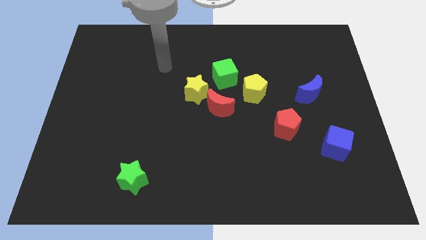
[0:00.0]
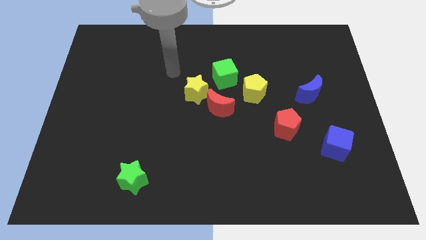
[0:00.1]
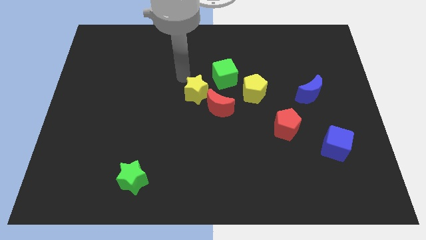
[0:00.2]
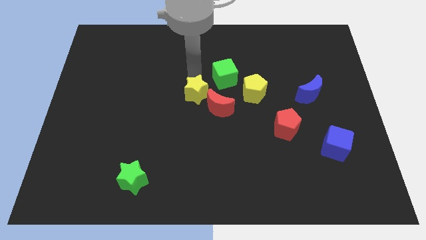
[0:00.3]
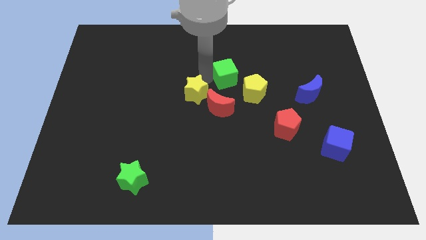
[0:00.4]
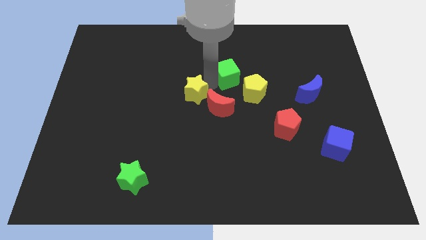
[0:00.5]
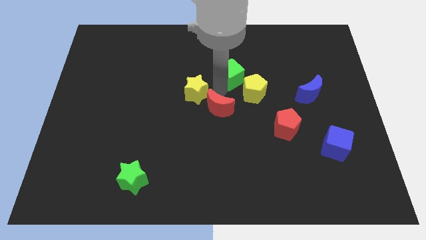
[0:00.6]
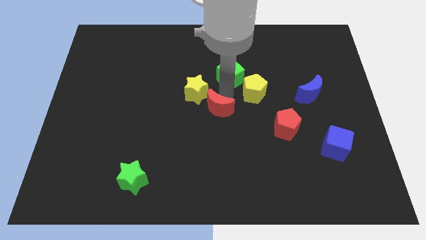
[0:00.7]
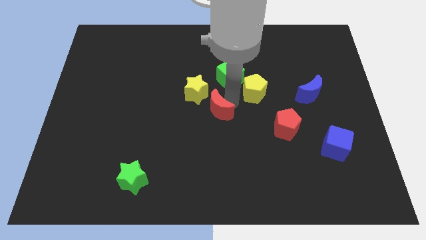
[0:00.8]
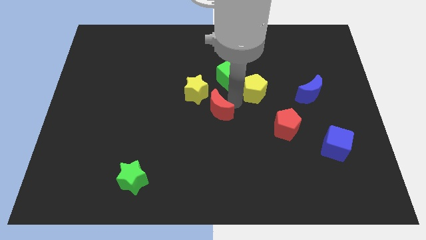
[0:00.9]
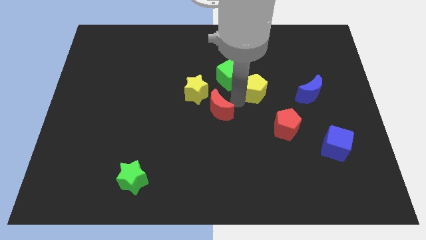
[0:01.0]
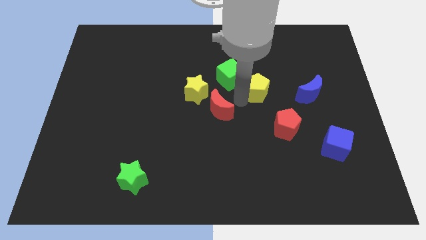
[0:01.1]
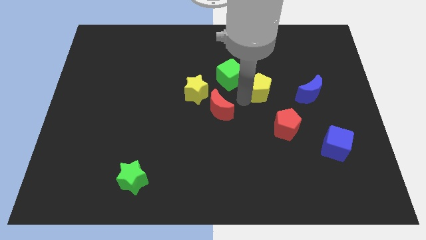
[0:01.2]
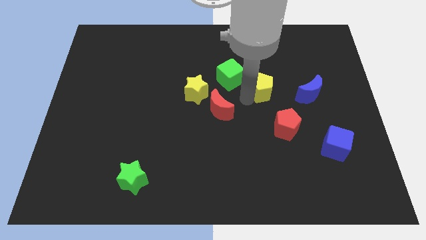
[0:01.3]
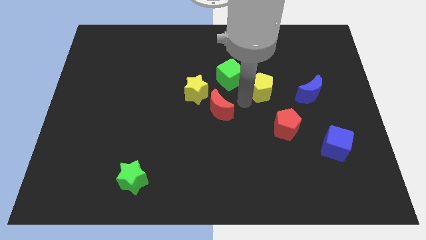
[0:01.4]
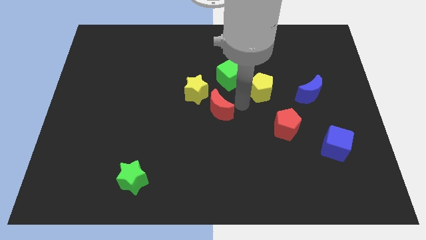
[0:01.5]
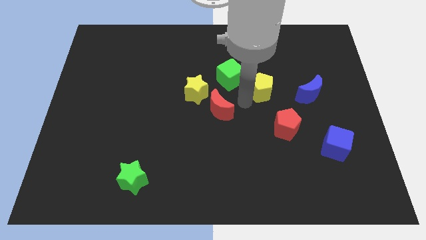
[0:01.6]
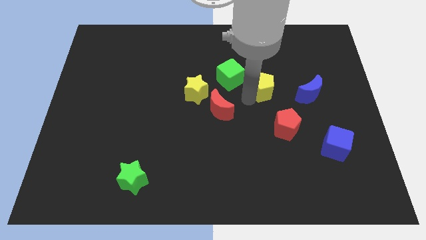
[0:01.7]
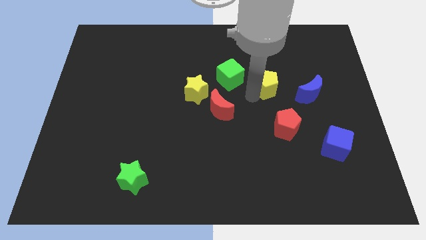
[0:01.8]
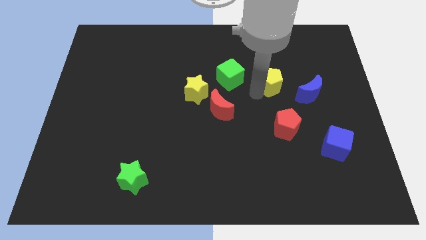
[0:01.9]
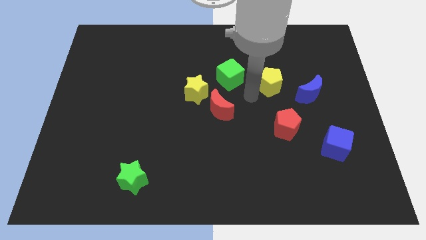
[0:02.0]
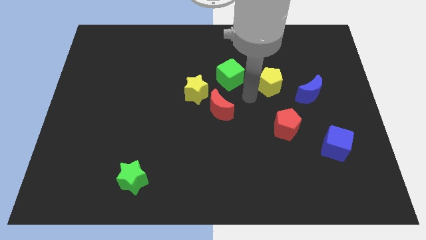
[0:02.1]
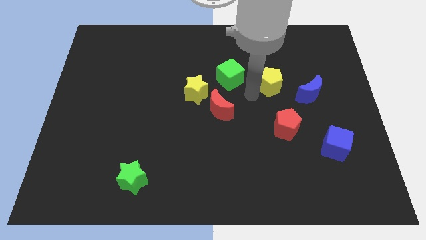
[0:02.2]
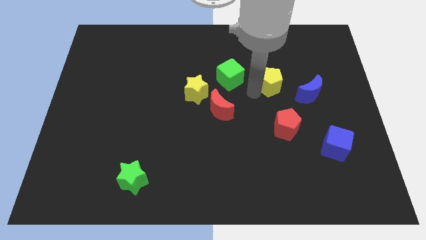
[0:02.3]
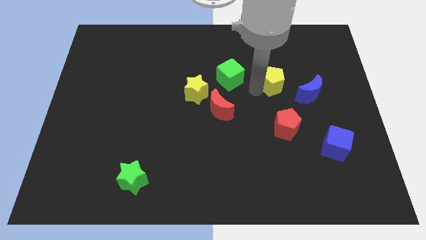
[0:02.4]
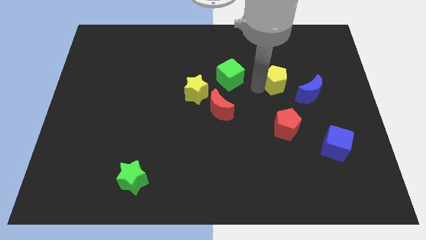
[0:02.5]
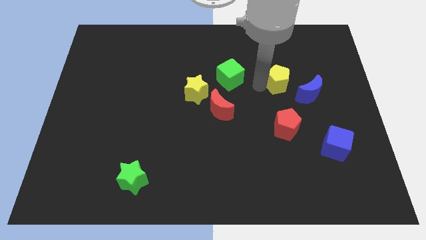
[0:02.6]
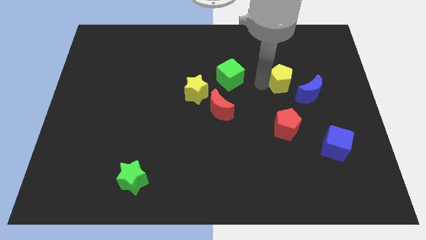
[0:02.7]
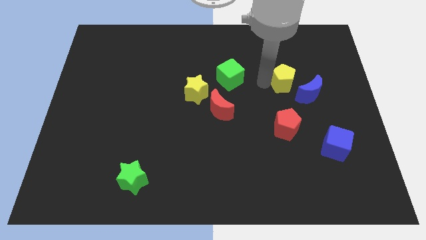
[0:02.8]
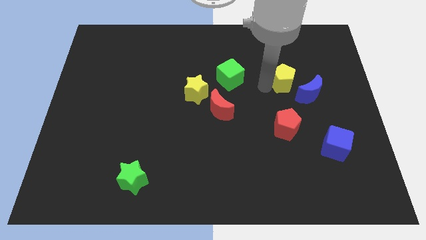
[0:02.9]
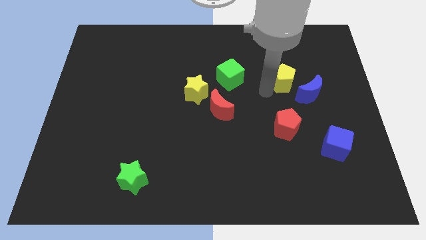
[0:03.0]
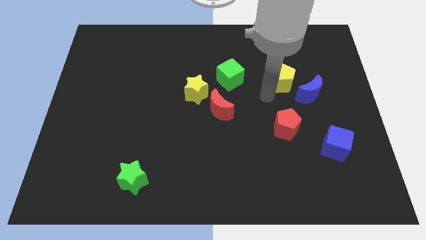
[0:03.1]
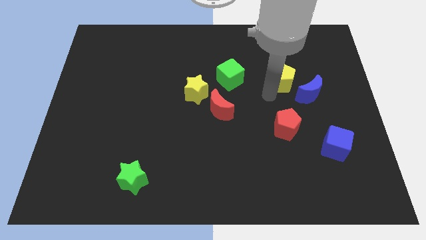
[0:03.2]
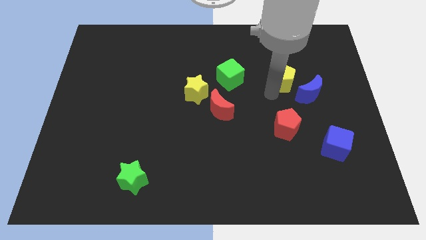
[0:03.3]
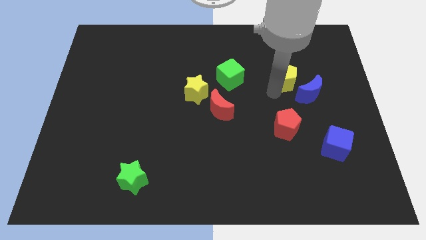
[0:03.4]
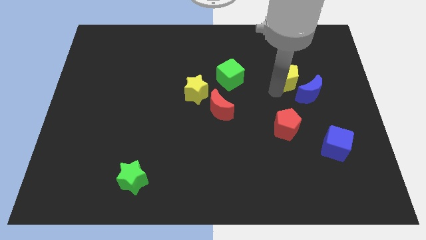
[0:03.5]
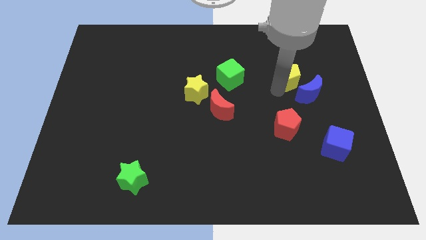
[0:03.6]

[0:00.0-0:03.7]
push the yellow pentagon to the top of the blue moon

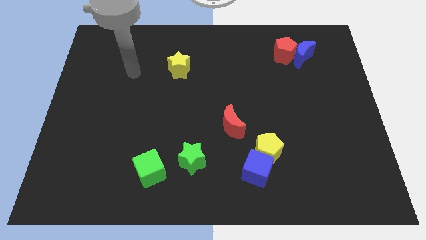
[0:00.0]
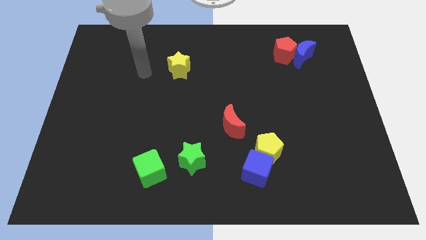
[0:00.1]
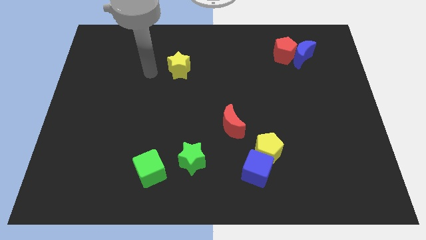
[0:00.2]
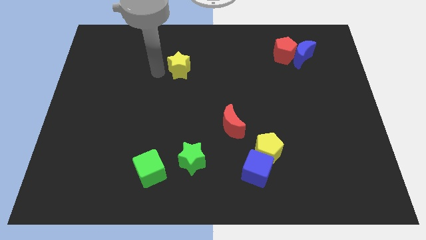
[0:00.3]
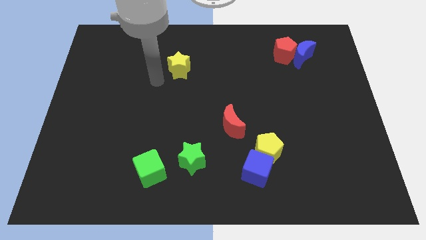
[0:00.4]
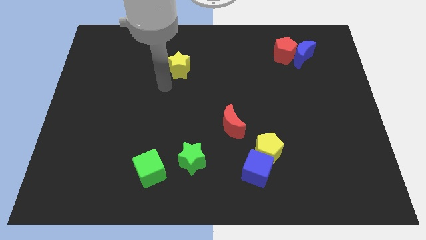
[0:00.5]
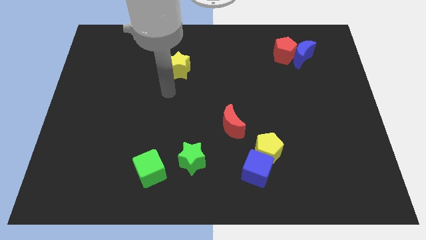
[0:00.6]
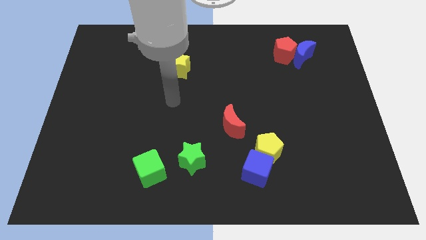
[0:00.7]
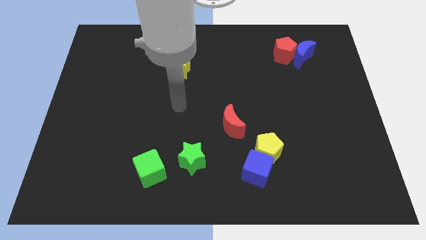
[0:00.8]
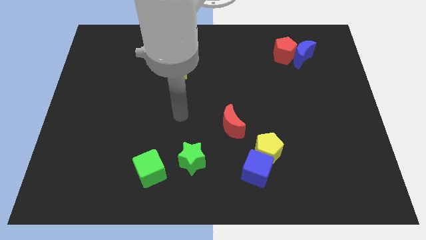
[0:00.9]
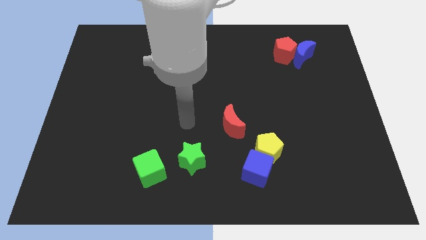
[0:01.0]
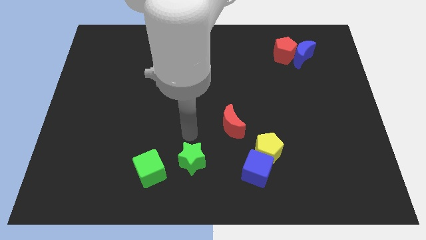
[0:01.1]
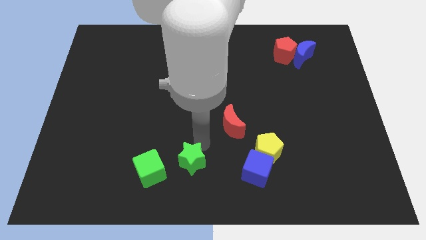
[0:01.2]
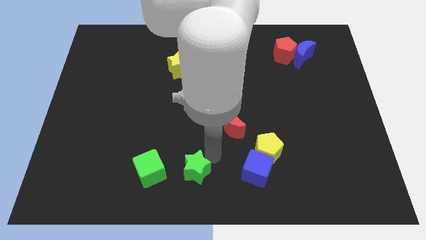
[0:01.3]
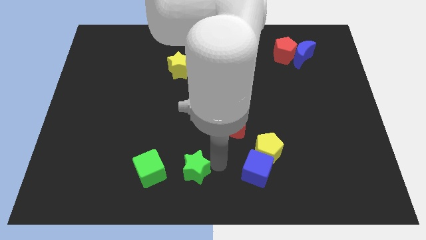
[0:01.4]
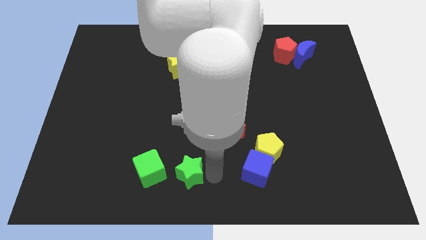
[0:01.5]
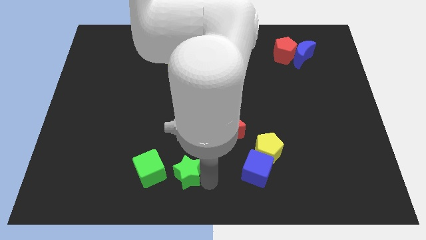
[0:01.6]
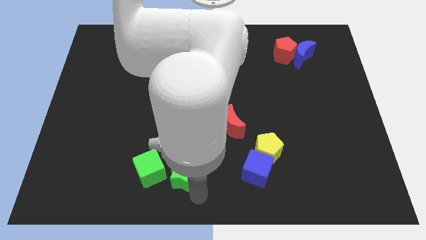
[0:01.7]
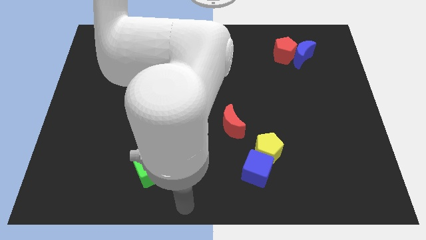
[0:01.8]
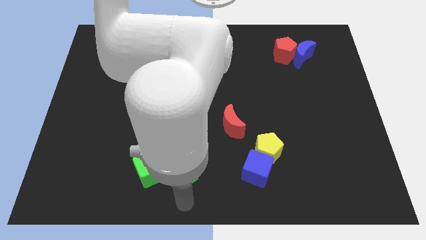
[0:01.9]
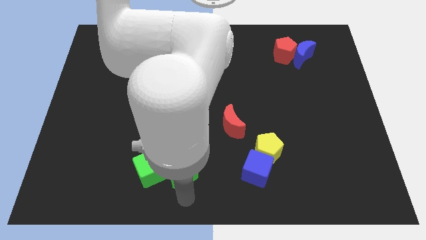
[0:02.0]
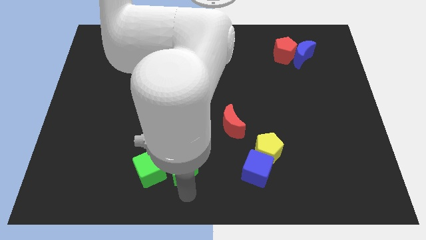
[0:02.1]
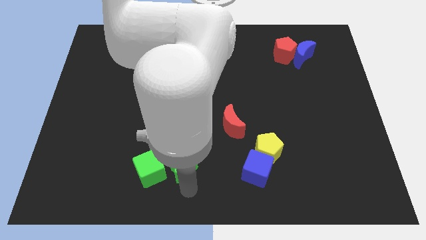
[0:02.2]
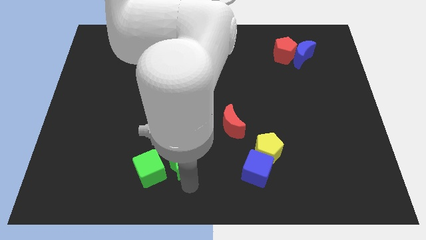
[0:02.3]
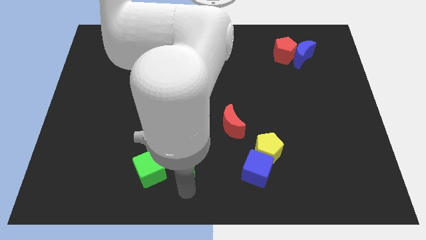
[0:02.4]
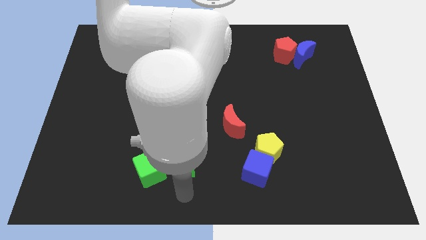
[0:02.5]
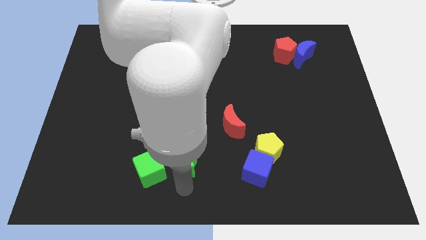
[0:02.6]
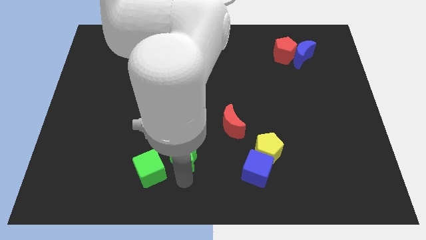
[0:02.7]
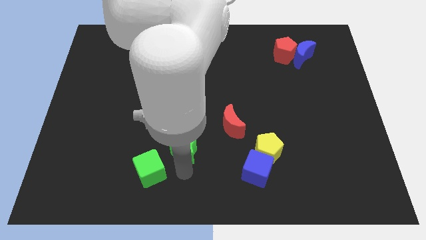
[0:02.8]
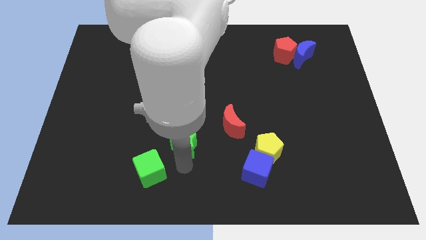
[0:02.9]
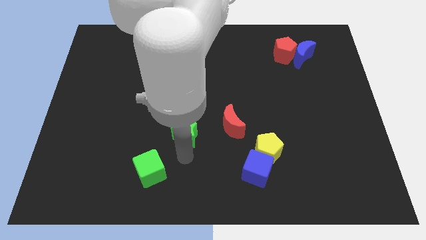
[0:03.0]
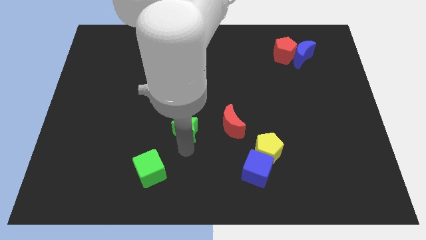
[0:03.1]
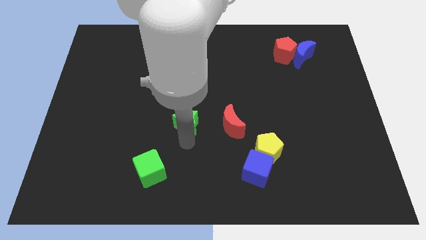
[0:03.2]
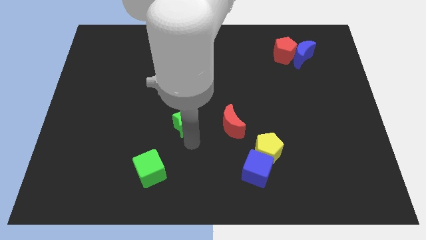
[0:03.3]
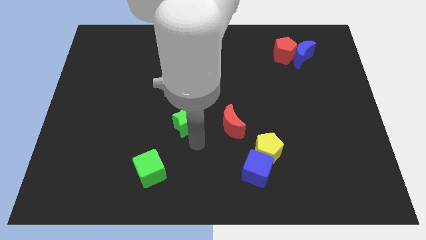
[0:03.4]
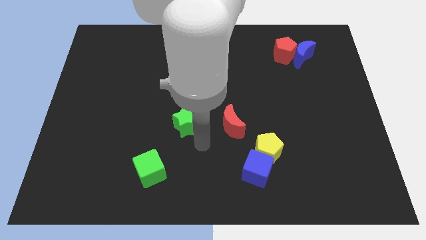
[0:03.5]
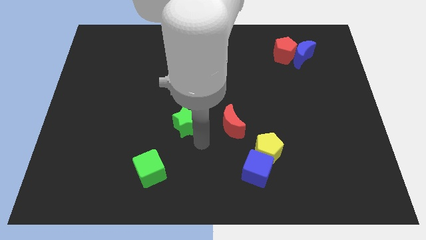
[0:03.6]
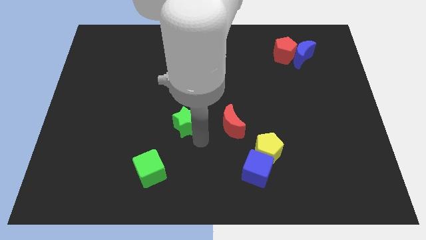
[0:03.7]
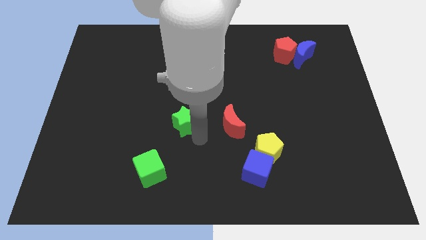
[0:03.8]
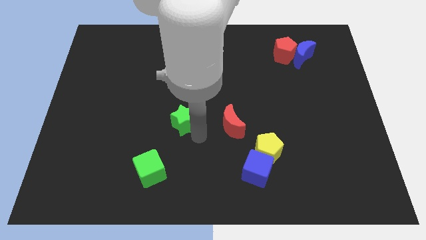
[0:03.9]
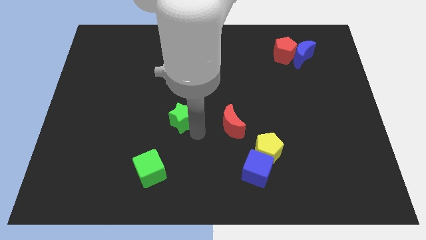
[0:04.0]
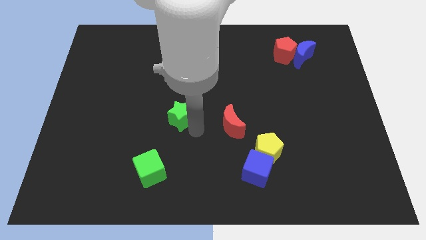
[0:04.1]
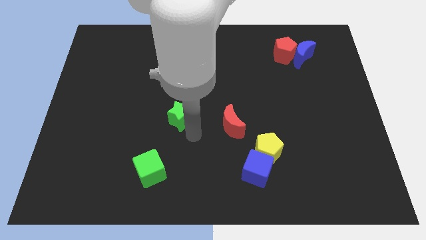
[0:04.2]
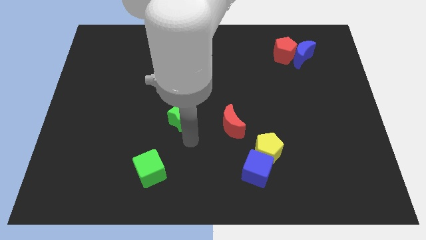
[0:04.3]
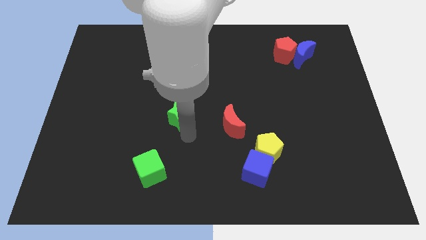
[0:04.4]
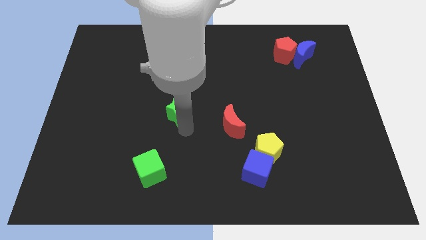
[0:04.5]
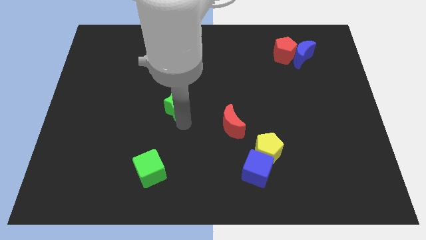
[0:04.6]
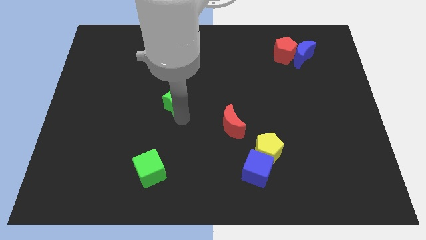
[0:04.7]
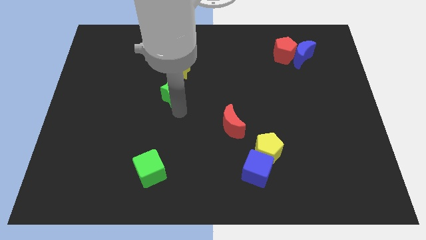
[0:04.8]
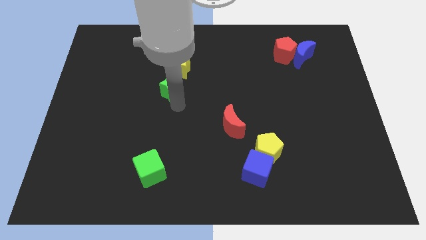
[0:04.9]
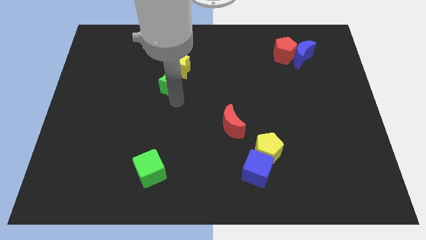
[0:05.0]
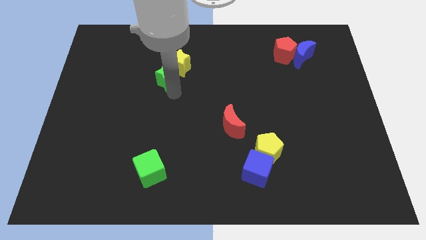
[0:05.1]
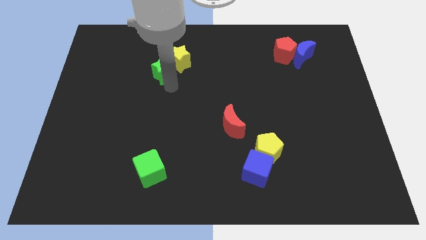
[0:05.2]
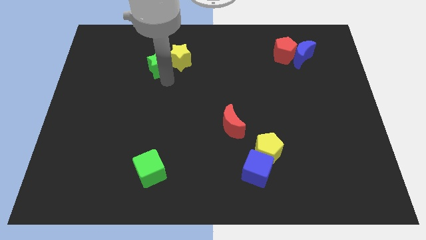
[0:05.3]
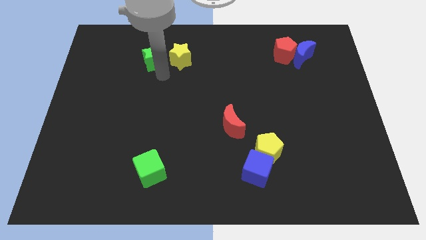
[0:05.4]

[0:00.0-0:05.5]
push the green star to the top left side of the yellow star
